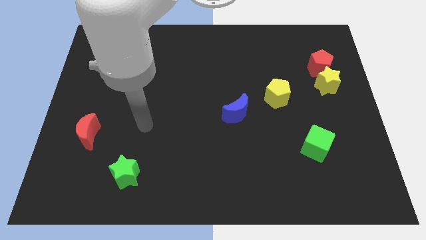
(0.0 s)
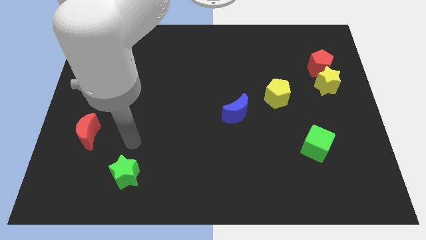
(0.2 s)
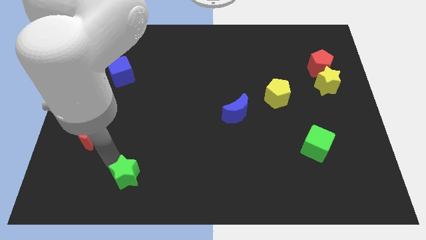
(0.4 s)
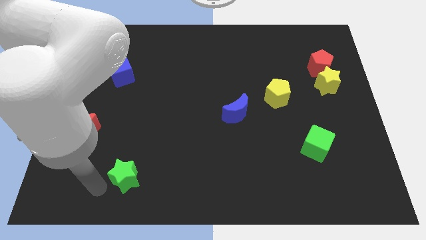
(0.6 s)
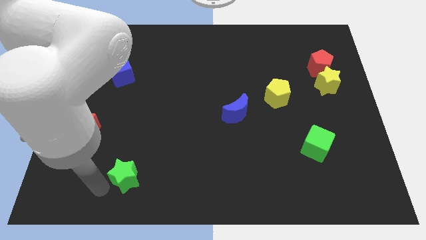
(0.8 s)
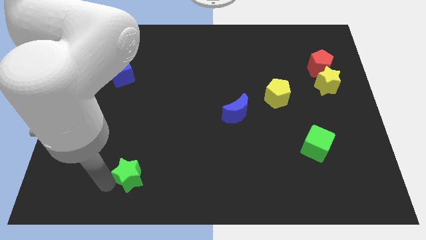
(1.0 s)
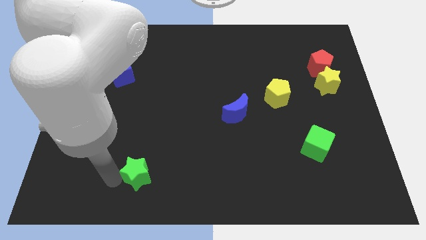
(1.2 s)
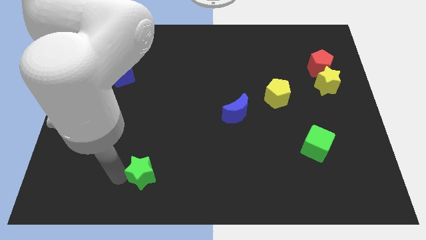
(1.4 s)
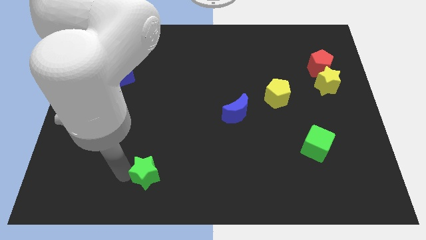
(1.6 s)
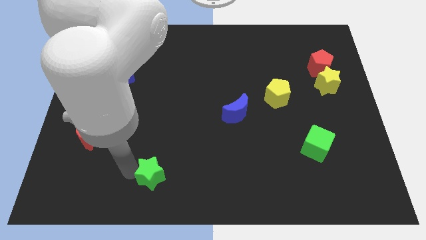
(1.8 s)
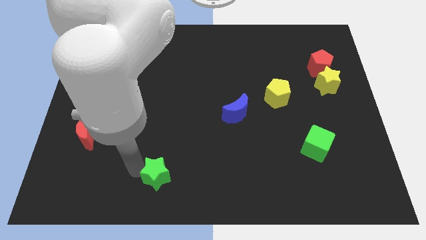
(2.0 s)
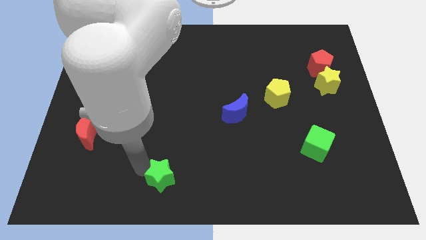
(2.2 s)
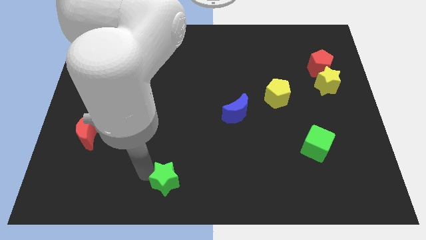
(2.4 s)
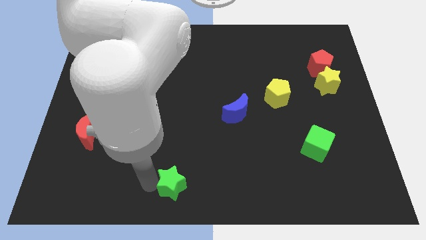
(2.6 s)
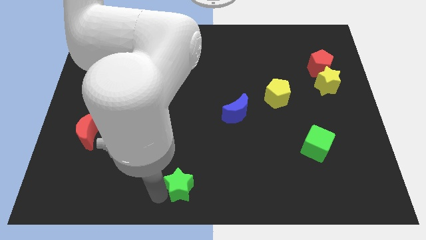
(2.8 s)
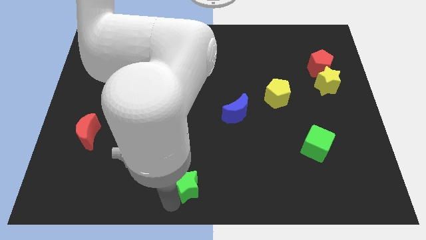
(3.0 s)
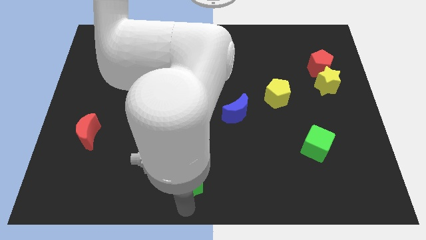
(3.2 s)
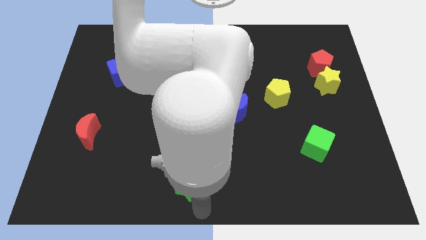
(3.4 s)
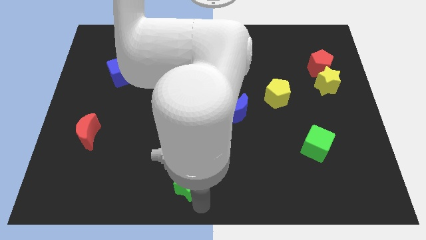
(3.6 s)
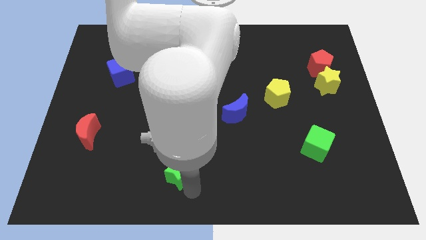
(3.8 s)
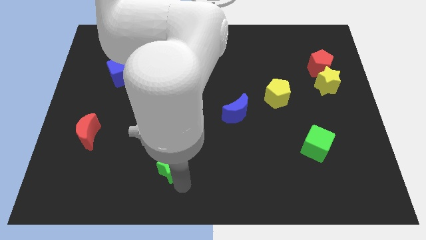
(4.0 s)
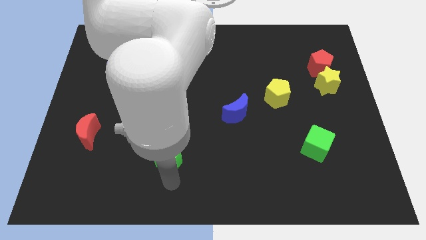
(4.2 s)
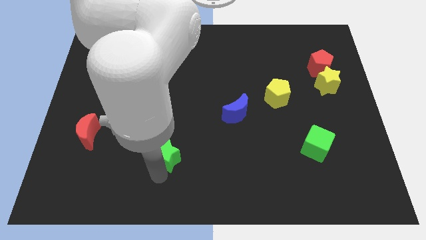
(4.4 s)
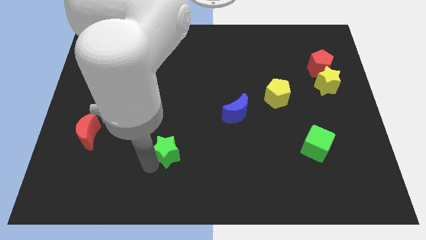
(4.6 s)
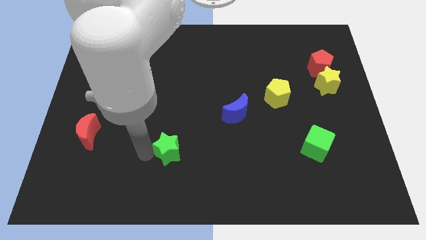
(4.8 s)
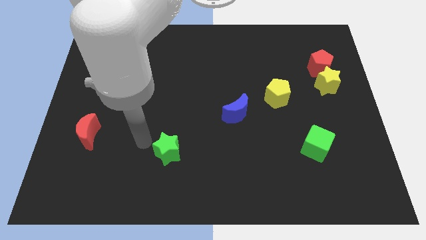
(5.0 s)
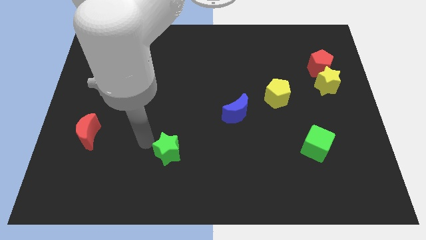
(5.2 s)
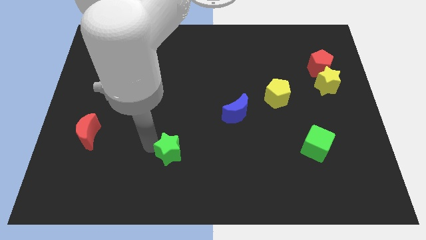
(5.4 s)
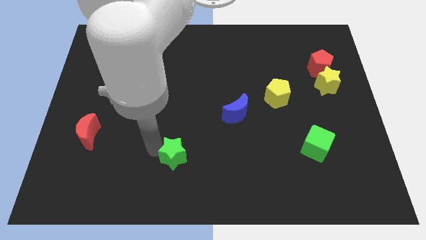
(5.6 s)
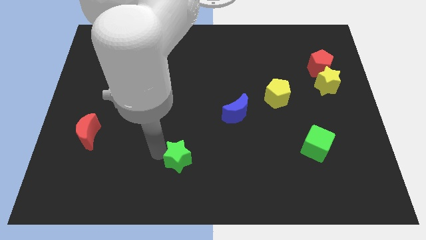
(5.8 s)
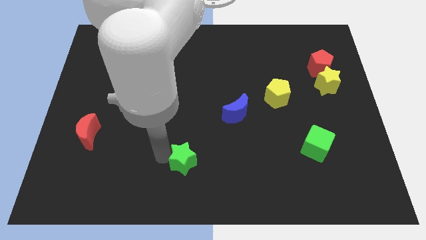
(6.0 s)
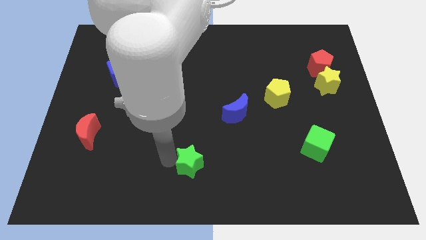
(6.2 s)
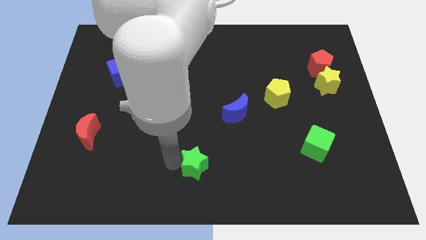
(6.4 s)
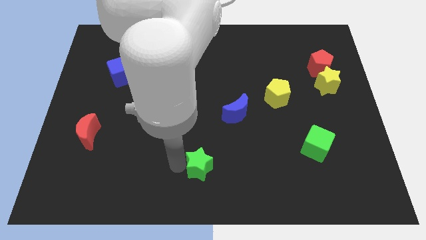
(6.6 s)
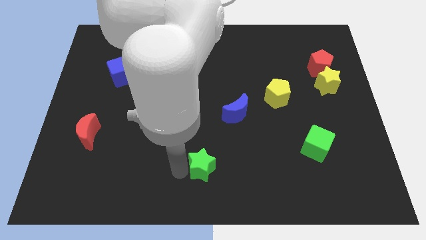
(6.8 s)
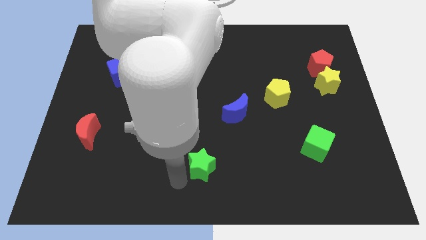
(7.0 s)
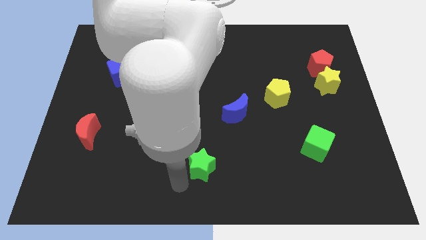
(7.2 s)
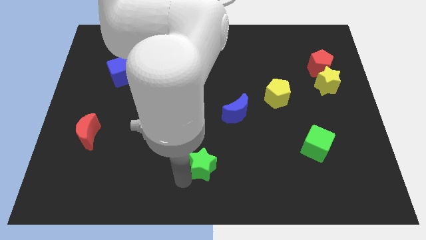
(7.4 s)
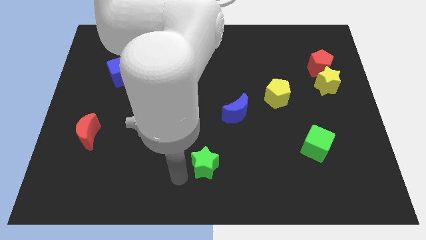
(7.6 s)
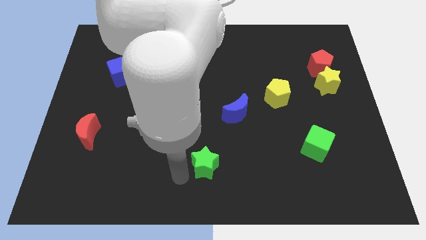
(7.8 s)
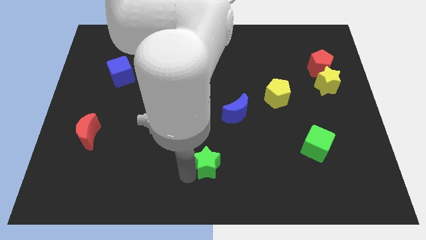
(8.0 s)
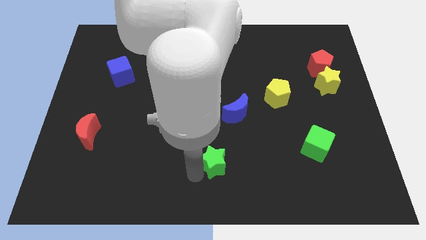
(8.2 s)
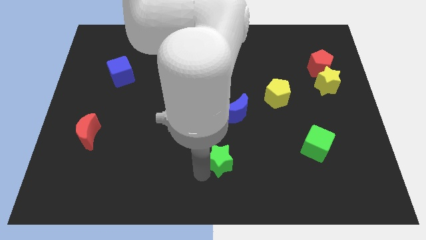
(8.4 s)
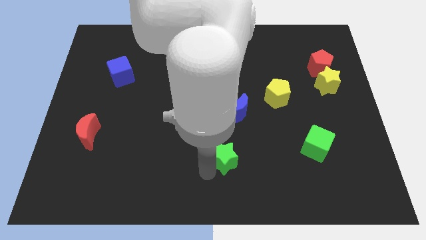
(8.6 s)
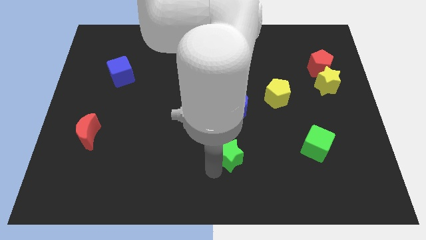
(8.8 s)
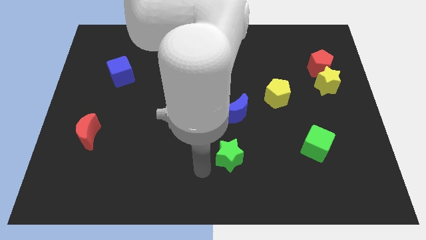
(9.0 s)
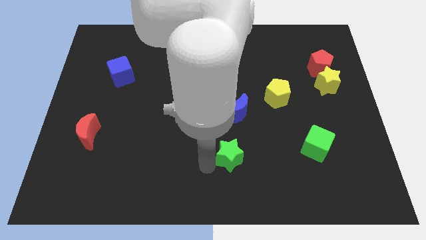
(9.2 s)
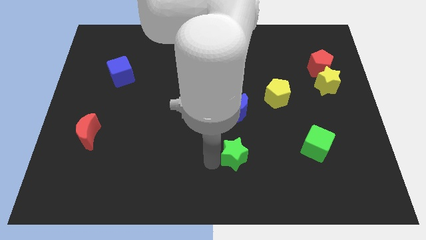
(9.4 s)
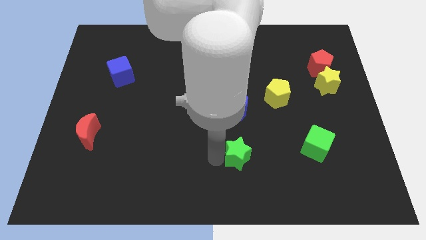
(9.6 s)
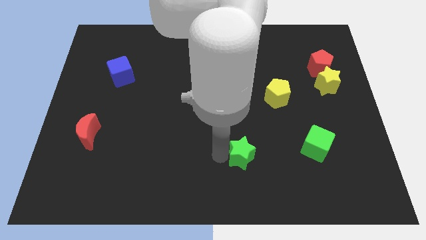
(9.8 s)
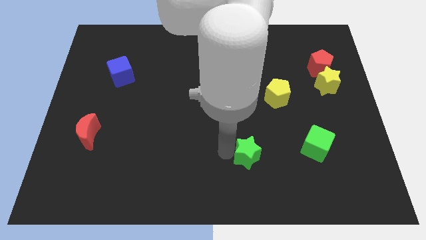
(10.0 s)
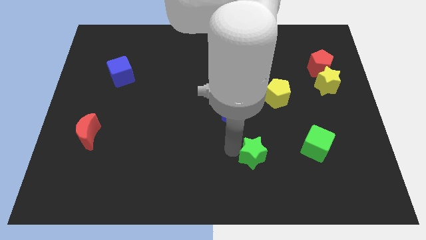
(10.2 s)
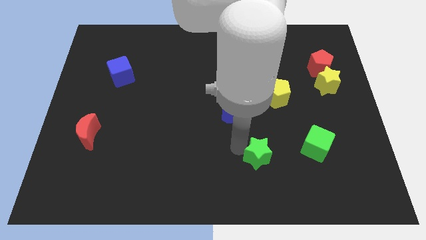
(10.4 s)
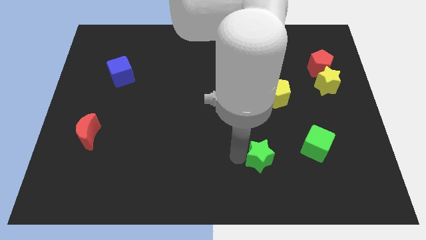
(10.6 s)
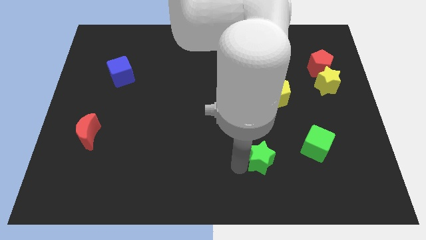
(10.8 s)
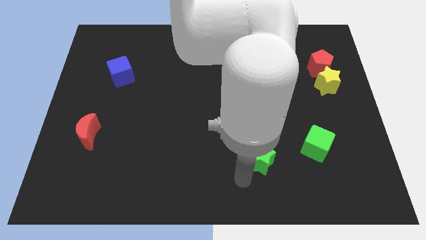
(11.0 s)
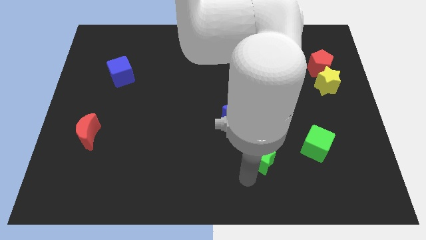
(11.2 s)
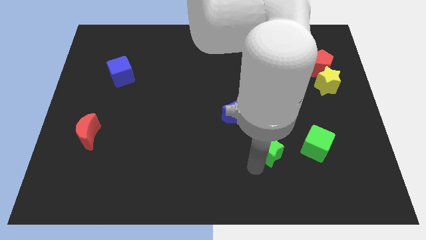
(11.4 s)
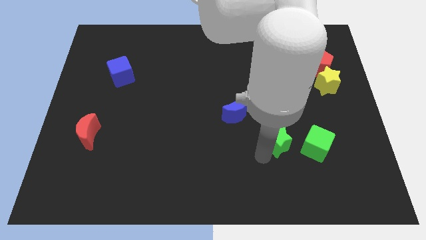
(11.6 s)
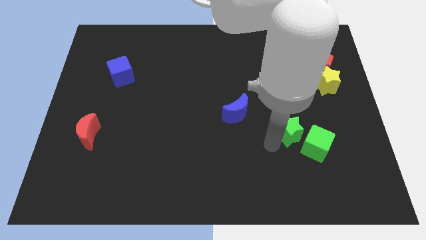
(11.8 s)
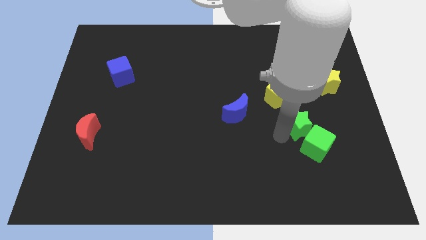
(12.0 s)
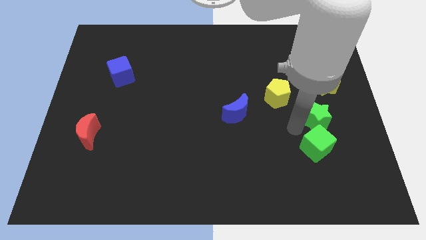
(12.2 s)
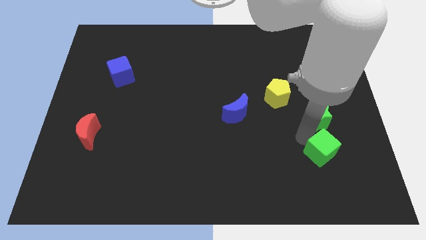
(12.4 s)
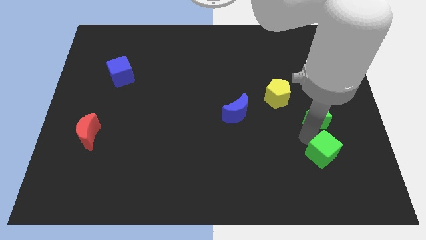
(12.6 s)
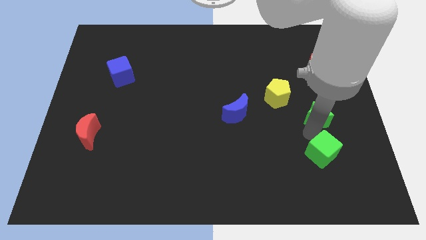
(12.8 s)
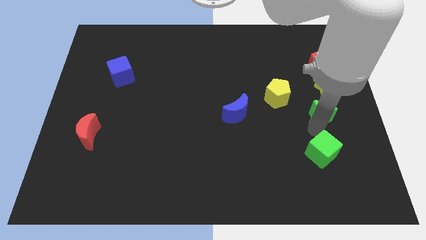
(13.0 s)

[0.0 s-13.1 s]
move the green star below the red pentagon
